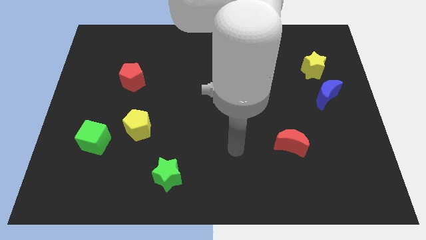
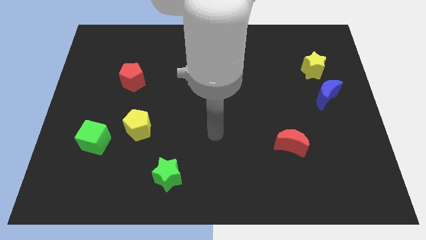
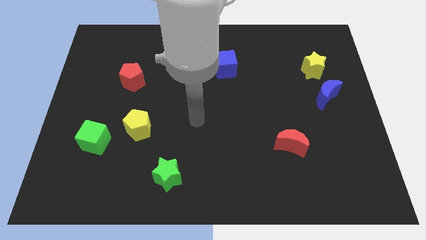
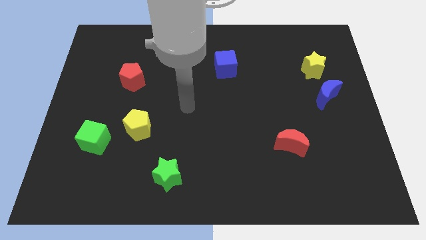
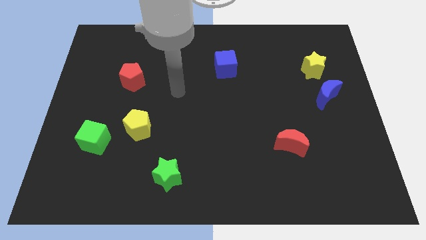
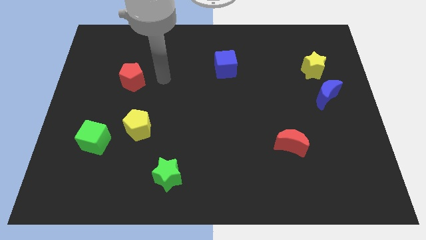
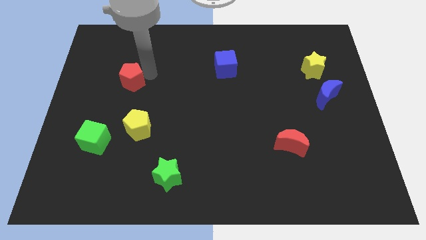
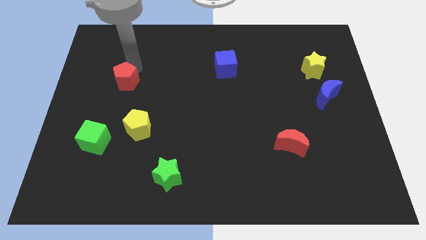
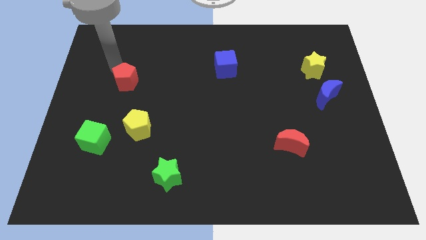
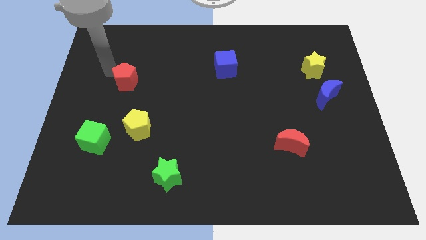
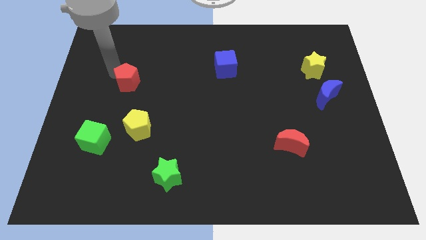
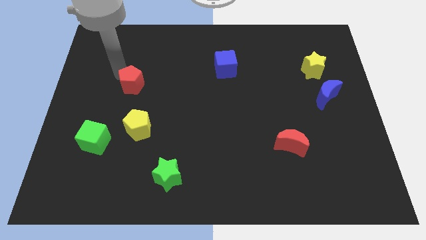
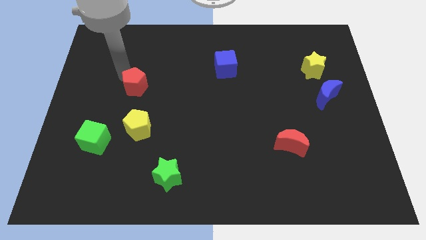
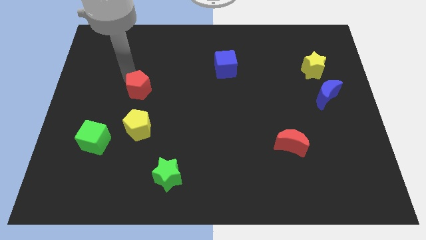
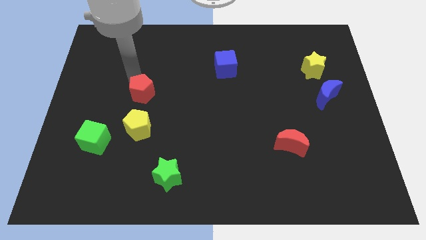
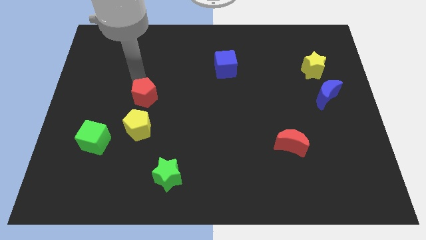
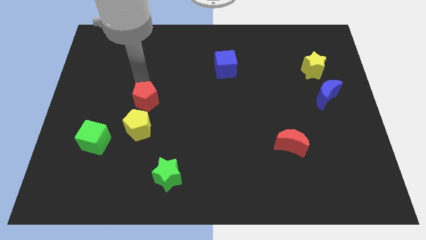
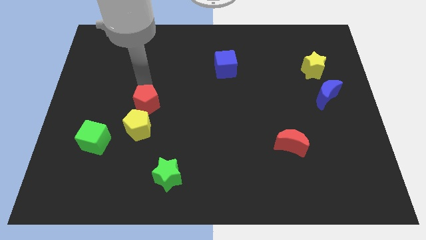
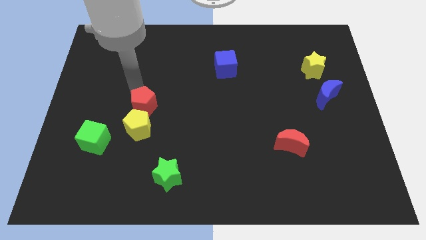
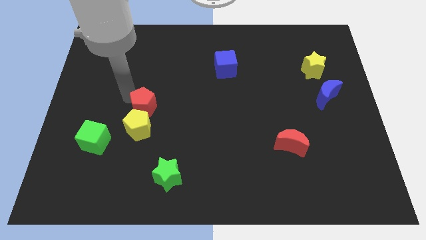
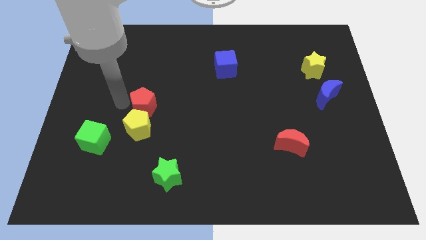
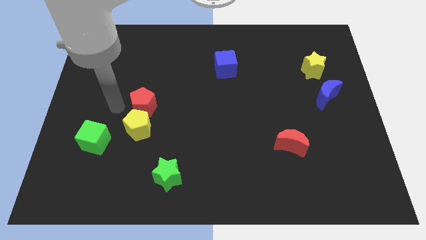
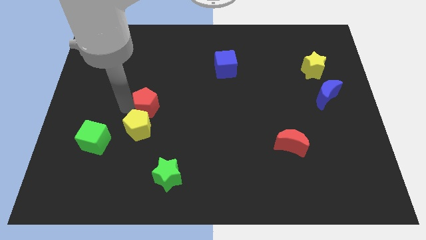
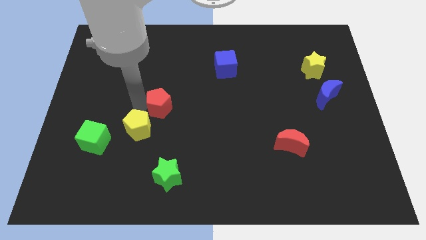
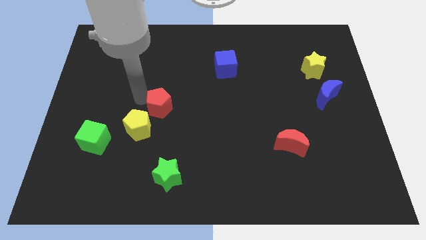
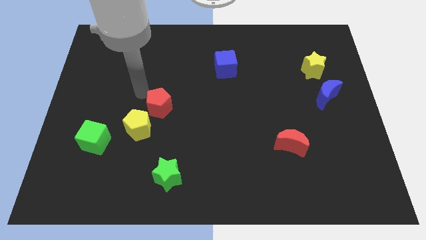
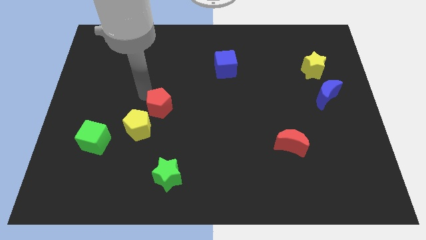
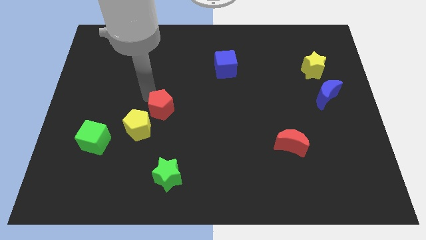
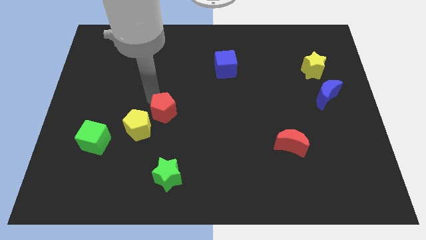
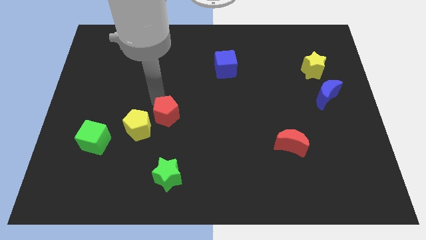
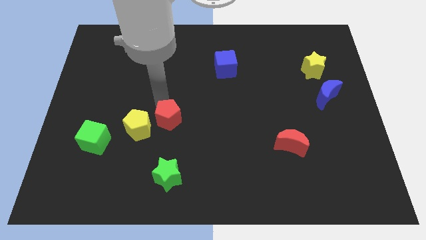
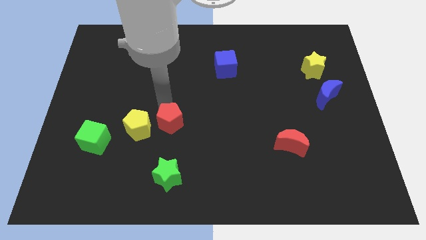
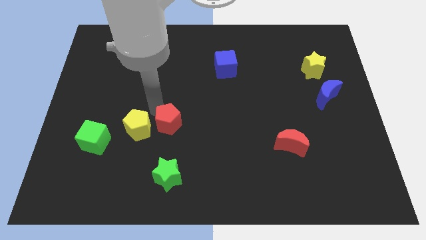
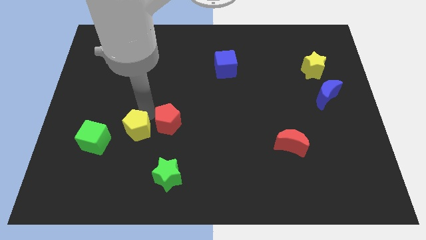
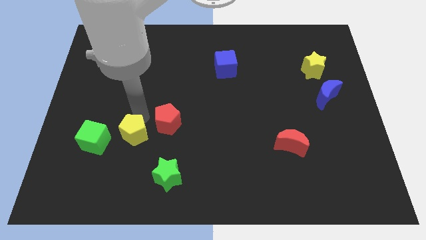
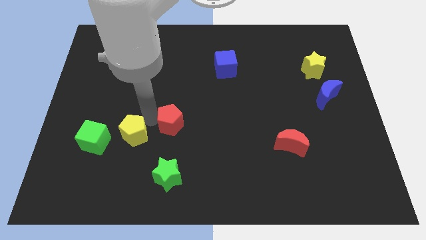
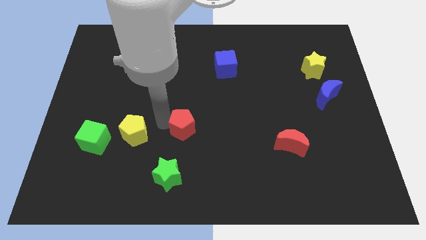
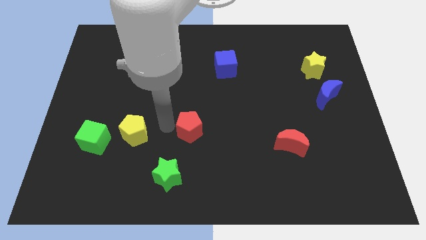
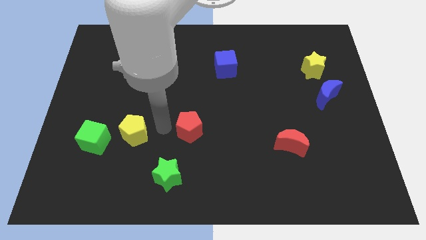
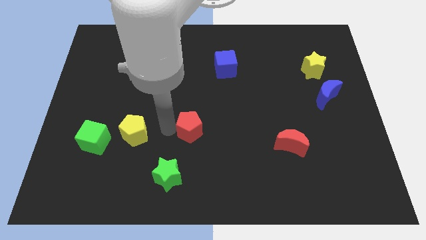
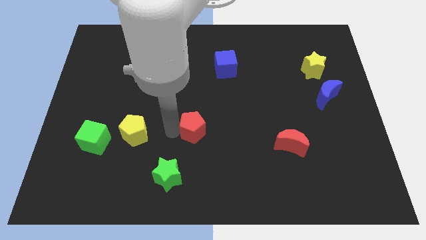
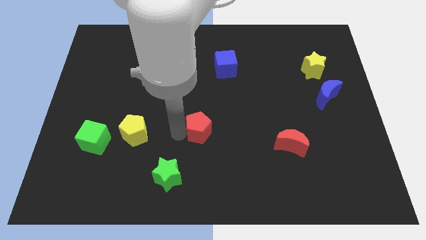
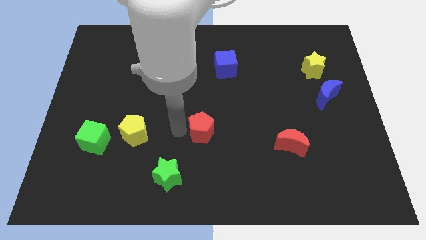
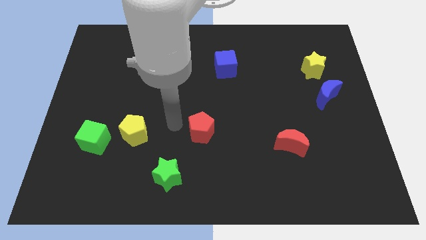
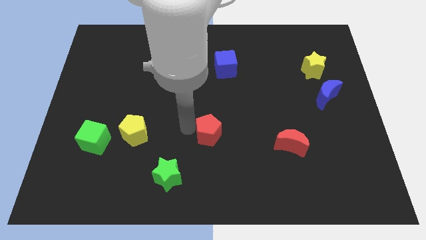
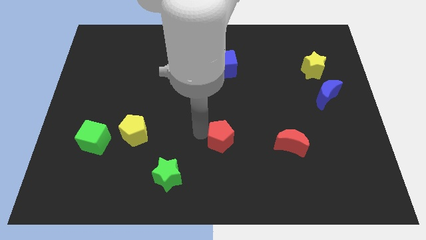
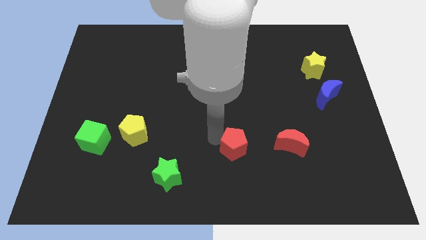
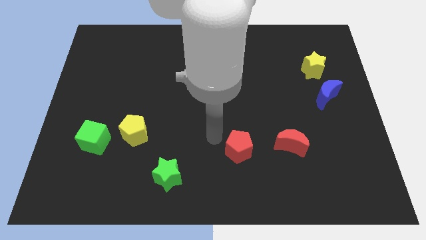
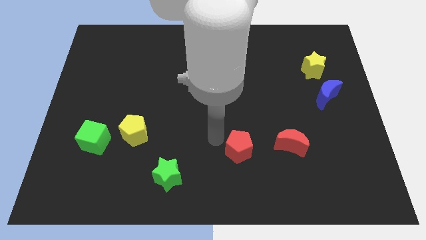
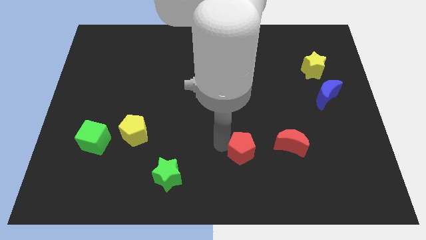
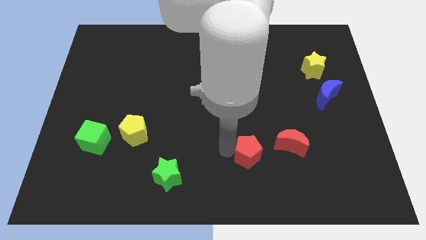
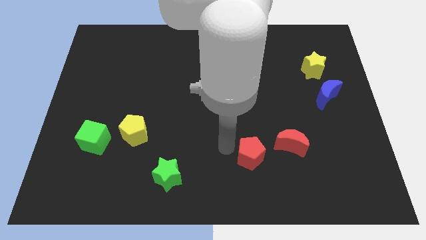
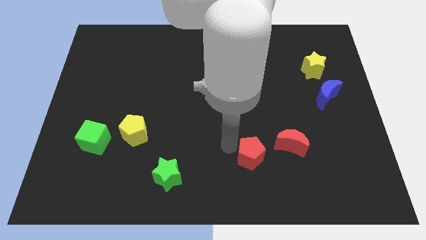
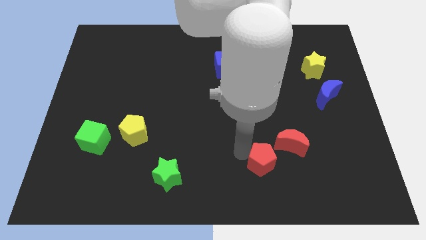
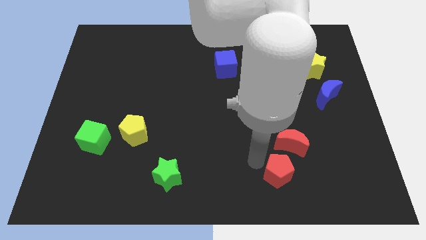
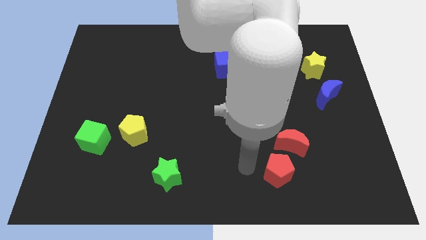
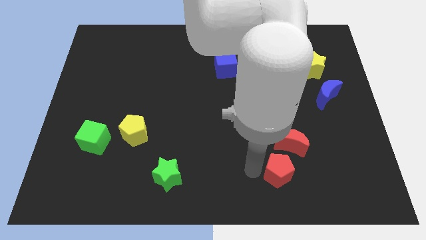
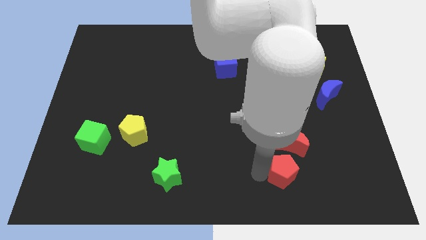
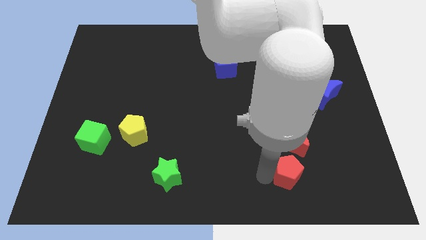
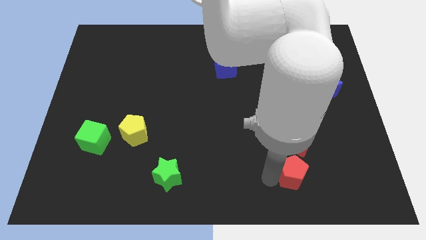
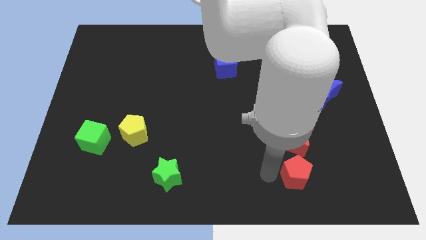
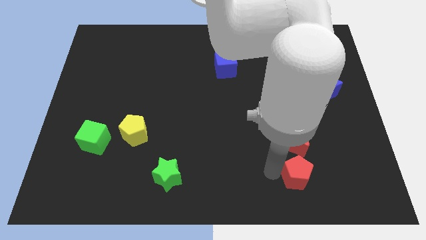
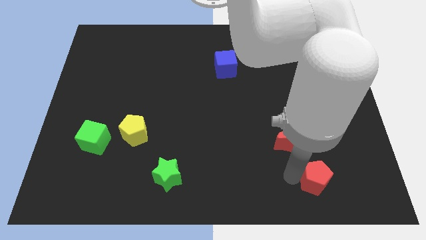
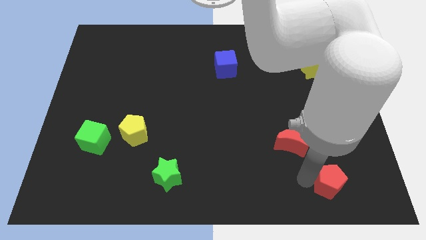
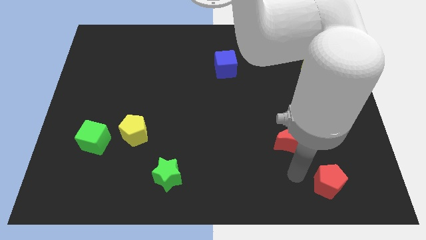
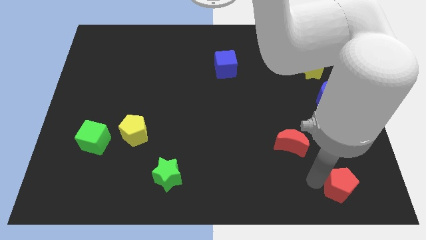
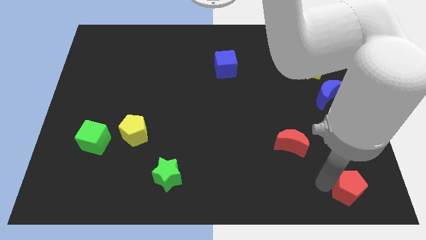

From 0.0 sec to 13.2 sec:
put the red pentagon to the bottom right corner
